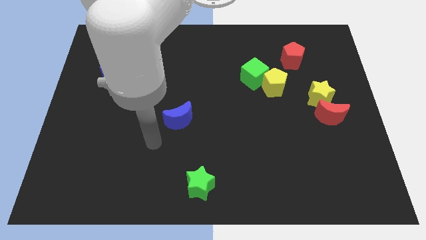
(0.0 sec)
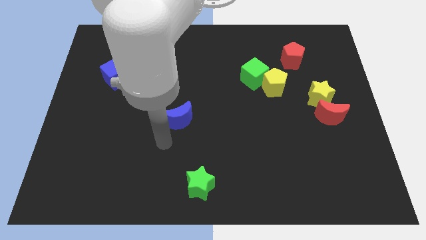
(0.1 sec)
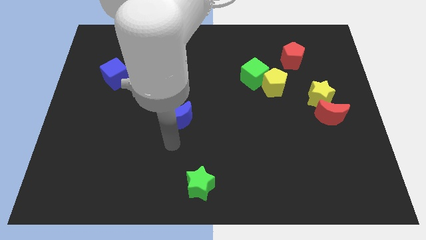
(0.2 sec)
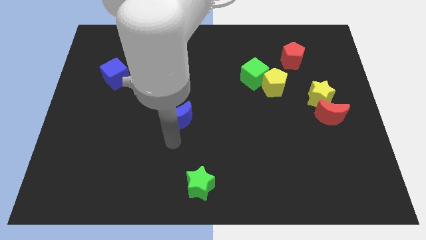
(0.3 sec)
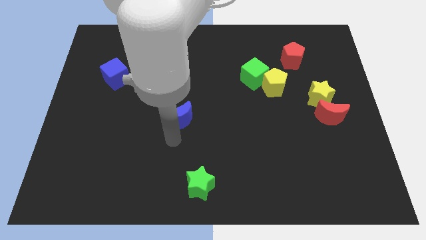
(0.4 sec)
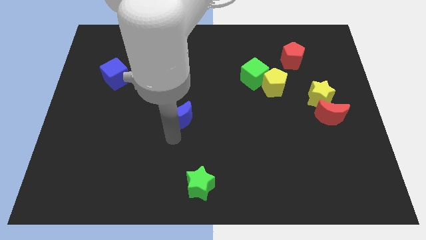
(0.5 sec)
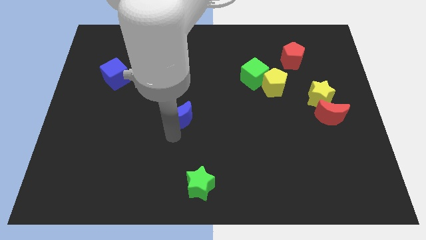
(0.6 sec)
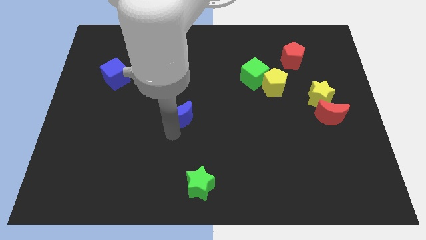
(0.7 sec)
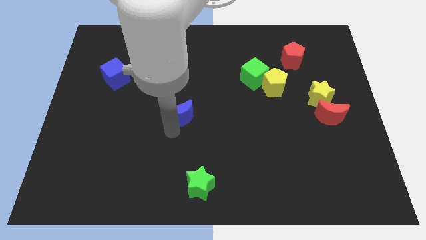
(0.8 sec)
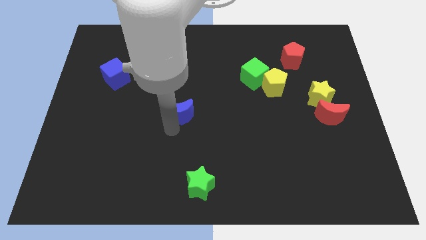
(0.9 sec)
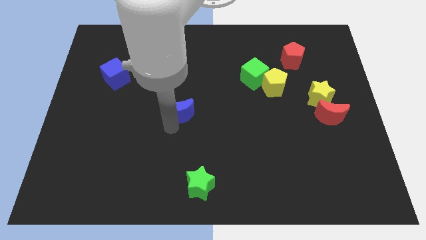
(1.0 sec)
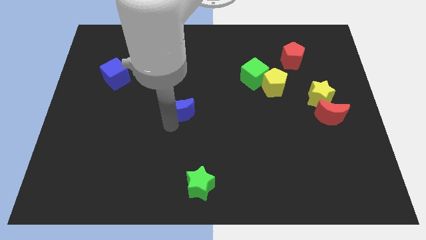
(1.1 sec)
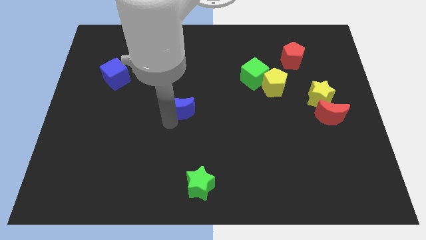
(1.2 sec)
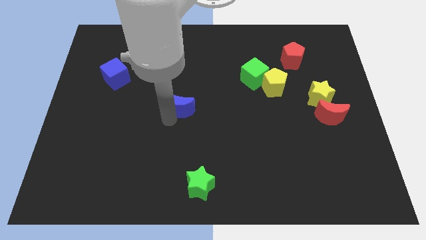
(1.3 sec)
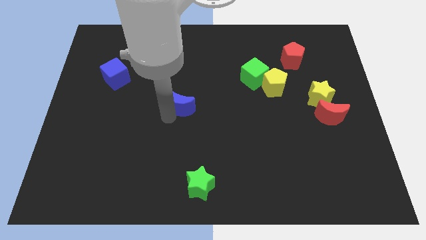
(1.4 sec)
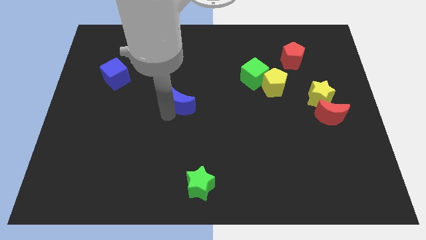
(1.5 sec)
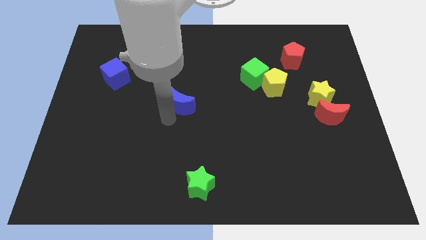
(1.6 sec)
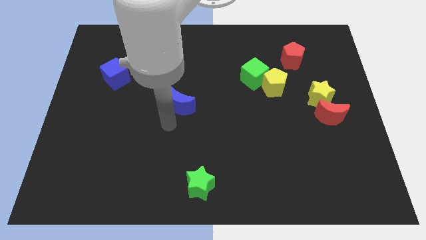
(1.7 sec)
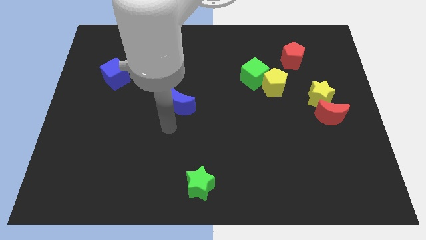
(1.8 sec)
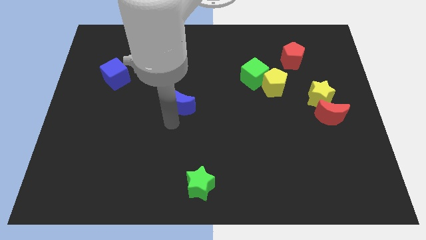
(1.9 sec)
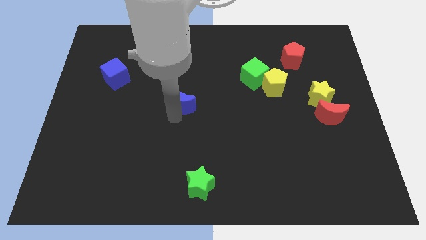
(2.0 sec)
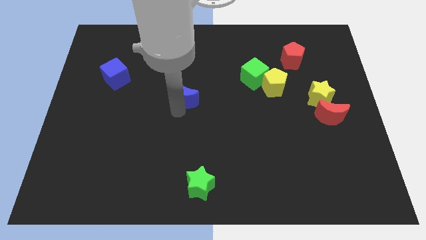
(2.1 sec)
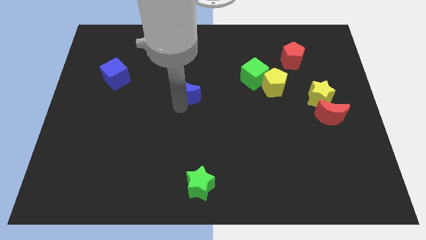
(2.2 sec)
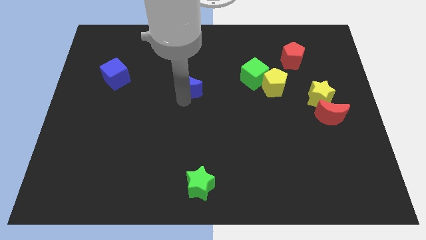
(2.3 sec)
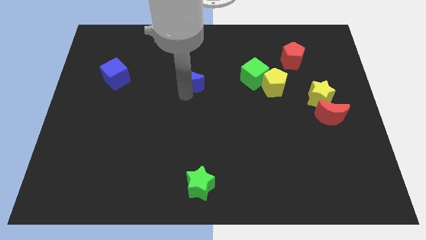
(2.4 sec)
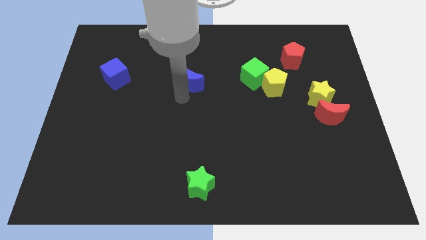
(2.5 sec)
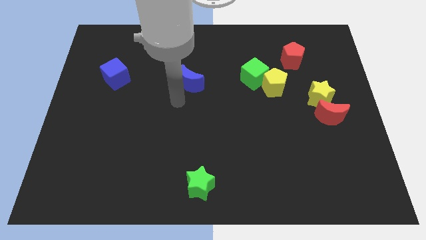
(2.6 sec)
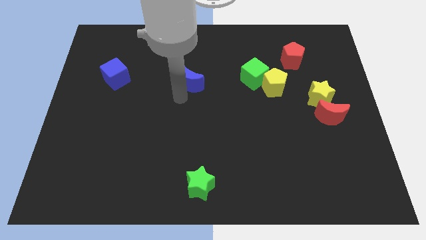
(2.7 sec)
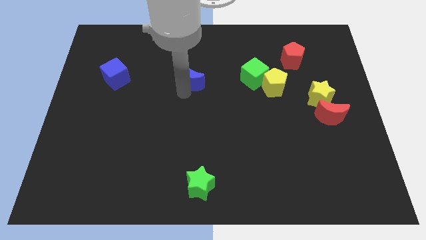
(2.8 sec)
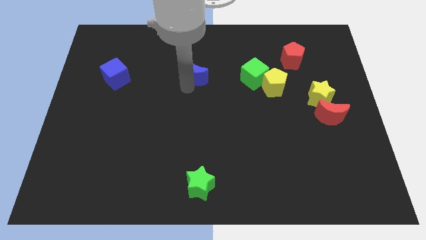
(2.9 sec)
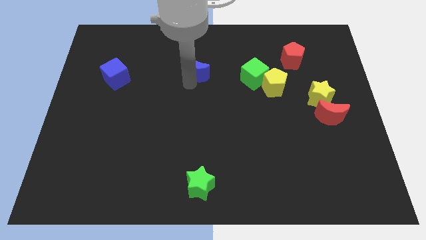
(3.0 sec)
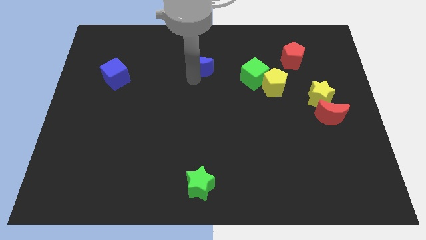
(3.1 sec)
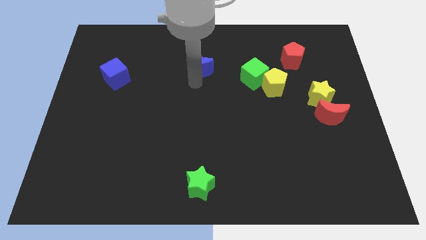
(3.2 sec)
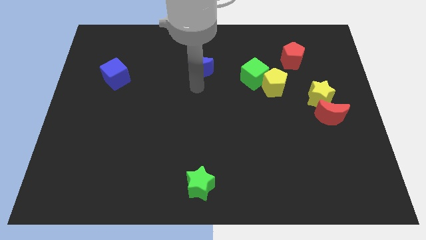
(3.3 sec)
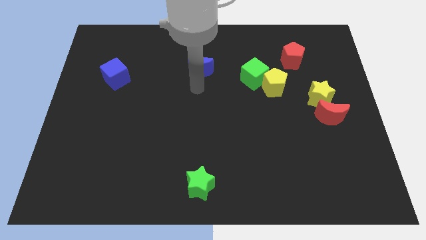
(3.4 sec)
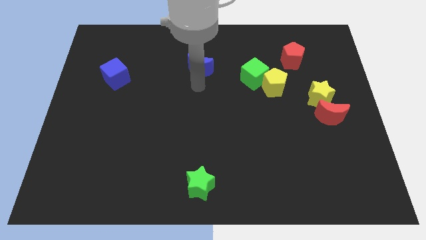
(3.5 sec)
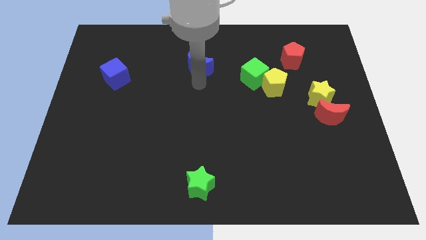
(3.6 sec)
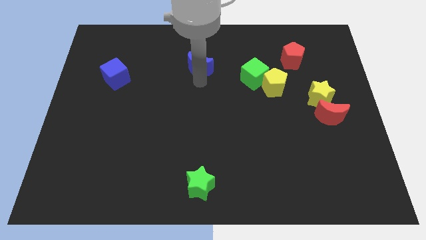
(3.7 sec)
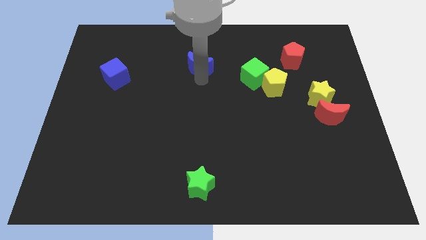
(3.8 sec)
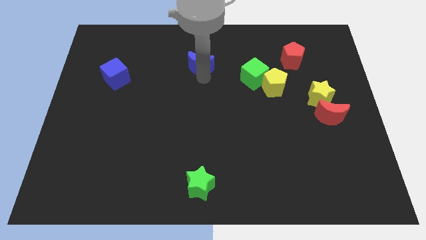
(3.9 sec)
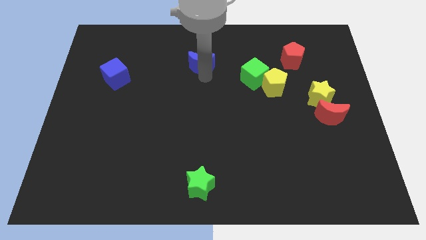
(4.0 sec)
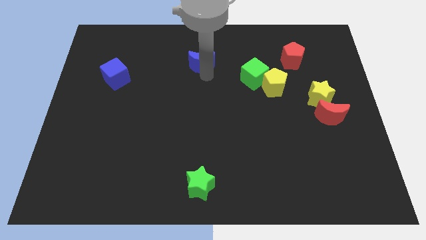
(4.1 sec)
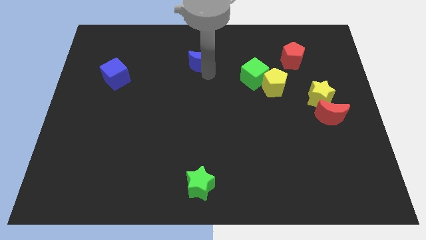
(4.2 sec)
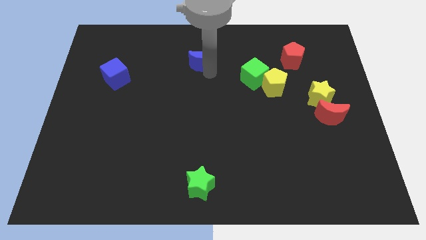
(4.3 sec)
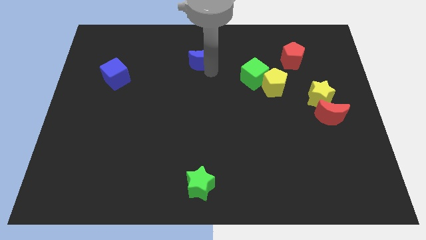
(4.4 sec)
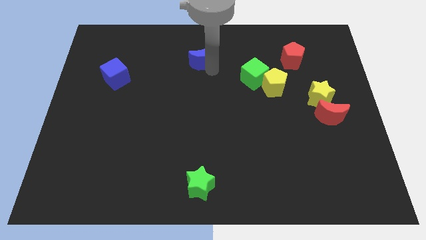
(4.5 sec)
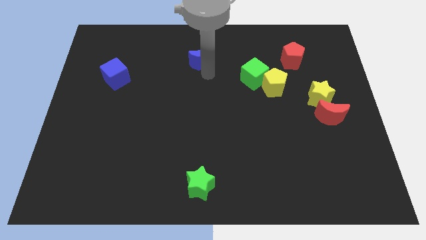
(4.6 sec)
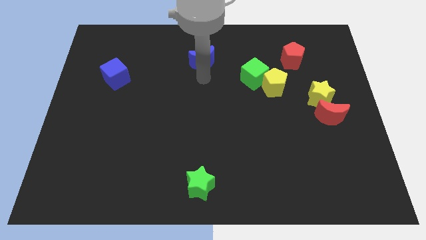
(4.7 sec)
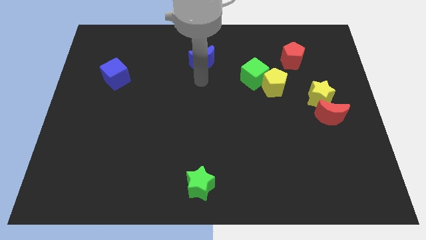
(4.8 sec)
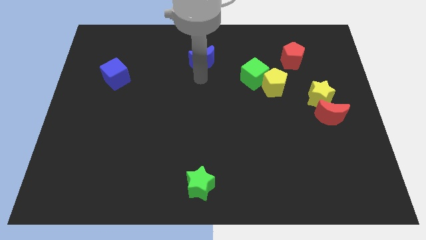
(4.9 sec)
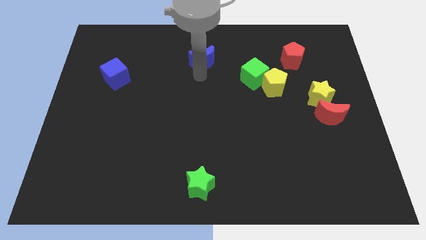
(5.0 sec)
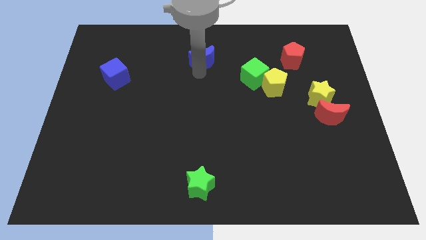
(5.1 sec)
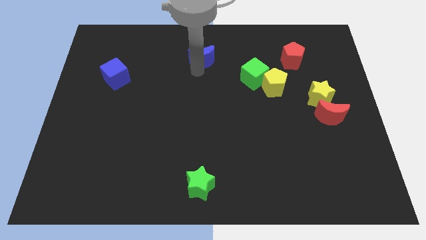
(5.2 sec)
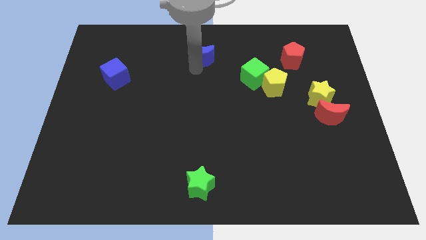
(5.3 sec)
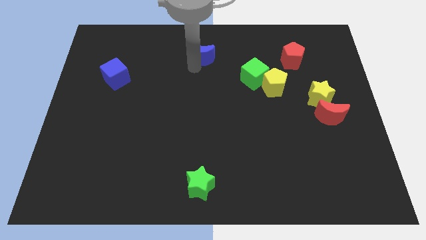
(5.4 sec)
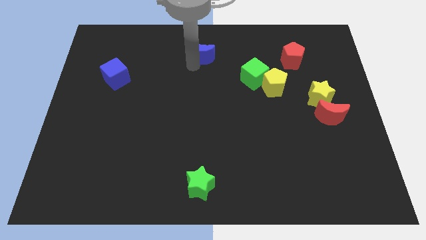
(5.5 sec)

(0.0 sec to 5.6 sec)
push the blue moon to the towards your base

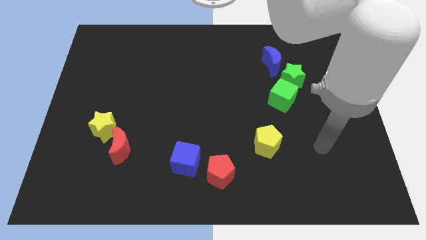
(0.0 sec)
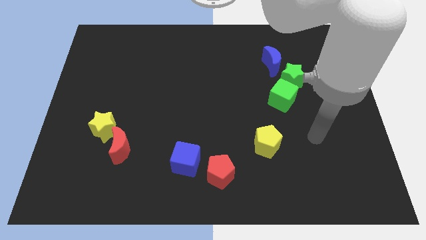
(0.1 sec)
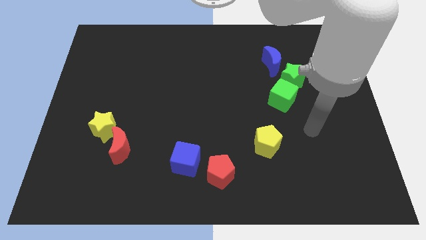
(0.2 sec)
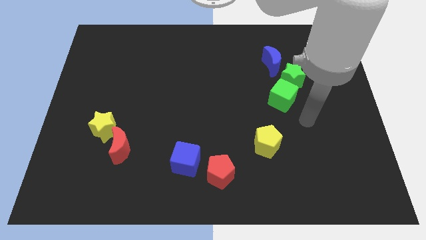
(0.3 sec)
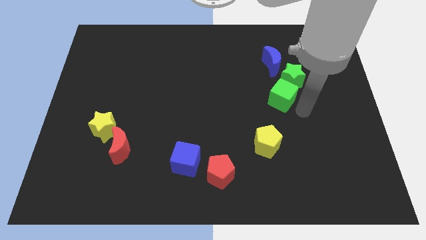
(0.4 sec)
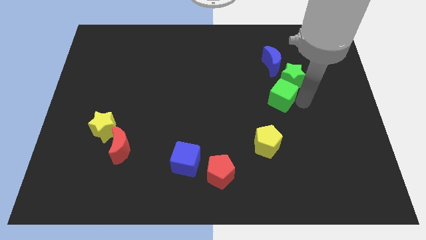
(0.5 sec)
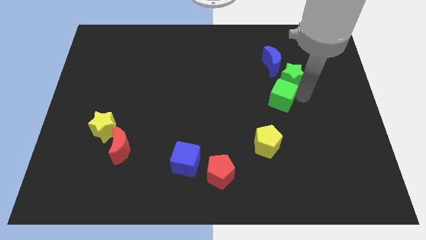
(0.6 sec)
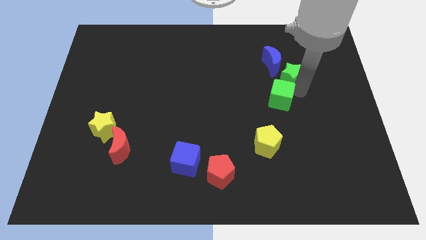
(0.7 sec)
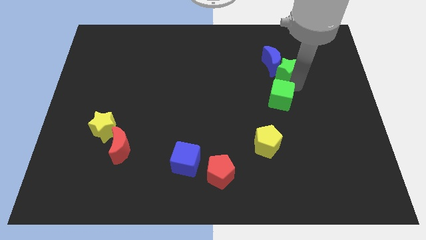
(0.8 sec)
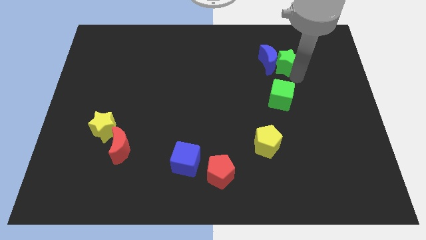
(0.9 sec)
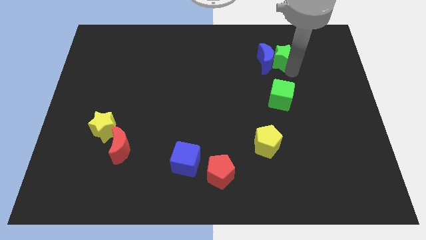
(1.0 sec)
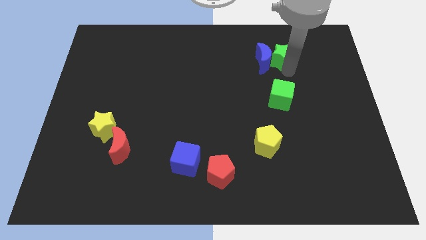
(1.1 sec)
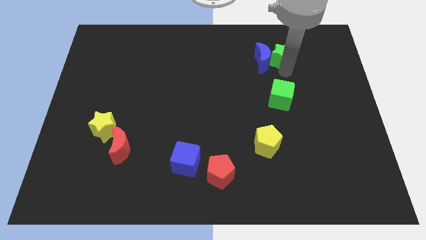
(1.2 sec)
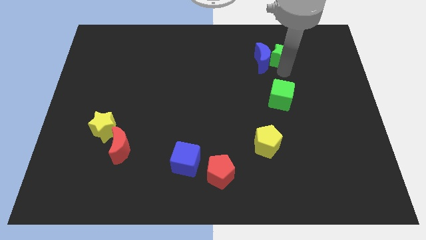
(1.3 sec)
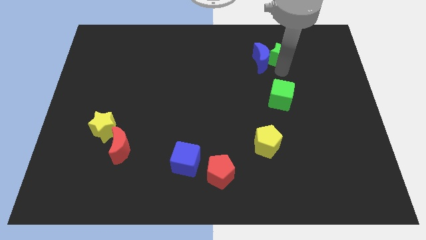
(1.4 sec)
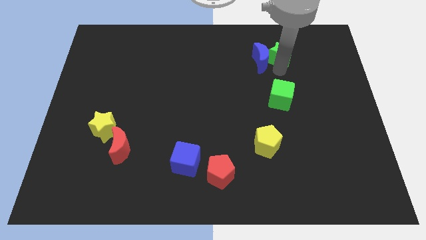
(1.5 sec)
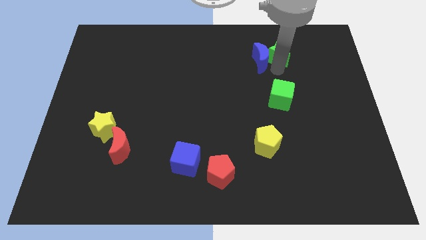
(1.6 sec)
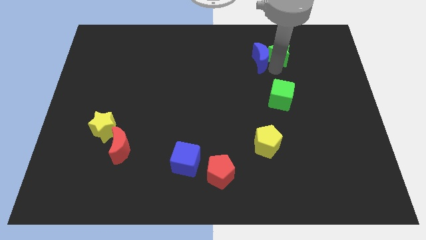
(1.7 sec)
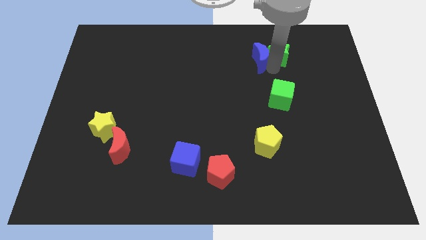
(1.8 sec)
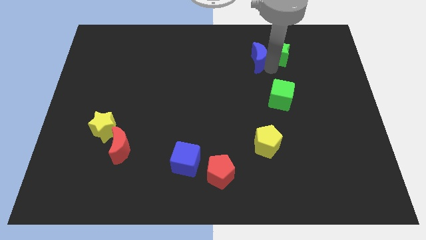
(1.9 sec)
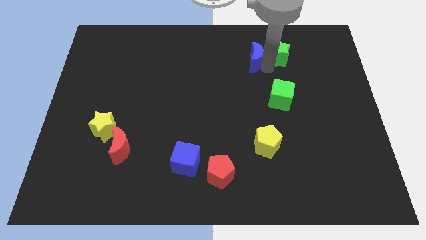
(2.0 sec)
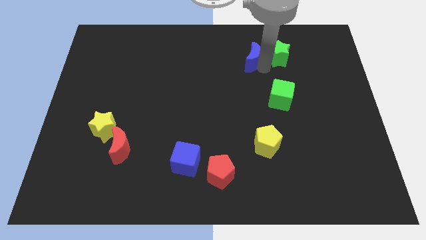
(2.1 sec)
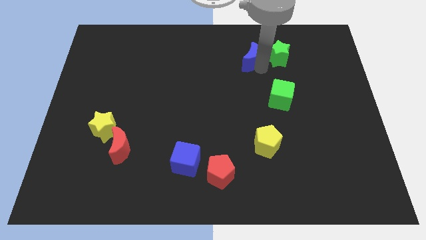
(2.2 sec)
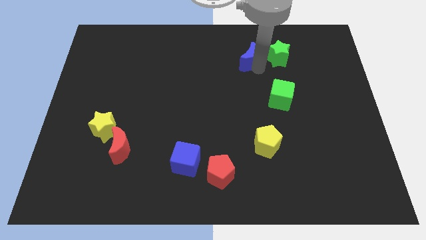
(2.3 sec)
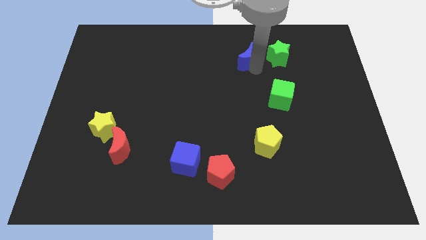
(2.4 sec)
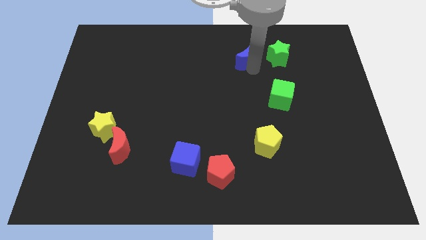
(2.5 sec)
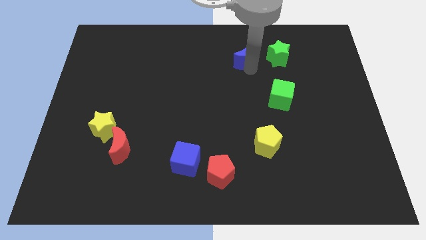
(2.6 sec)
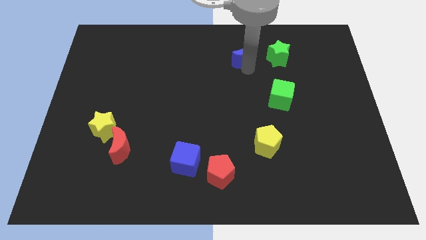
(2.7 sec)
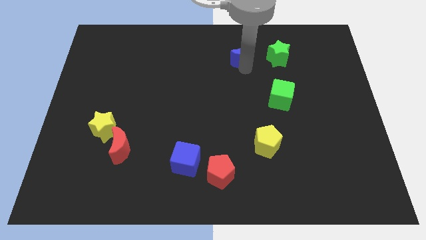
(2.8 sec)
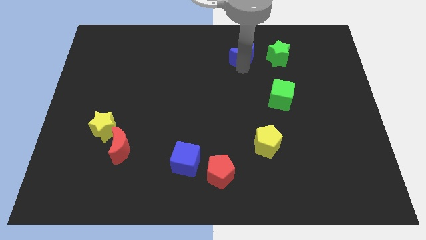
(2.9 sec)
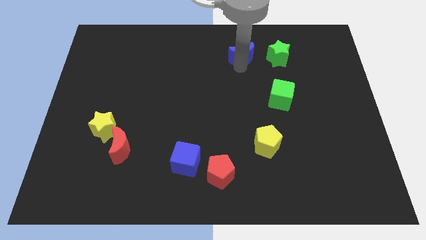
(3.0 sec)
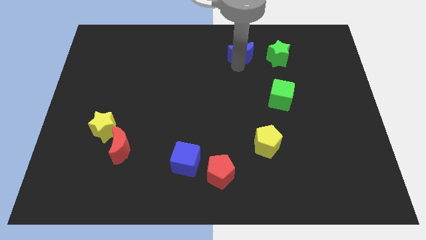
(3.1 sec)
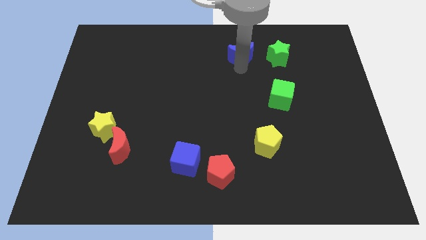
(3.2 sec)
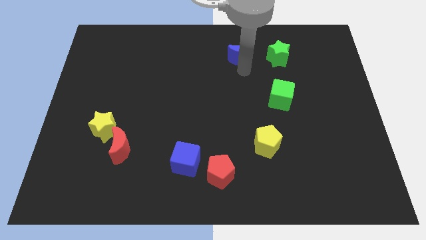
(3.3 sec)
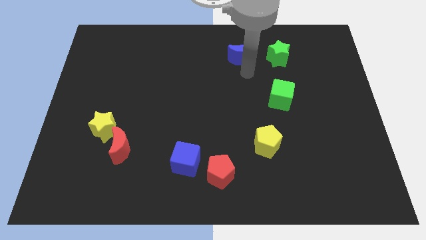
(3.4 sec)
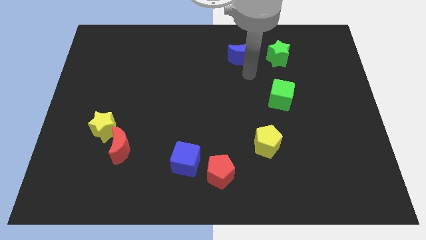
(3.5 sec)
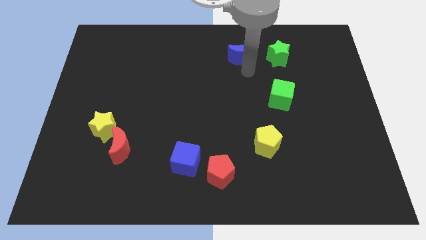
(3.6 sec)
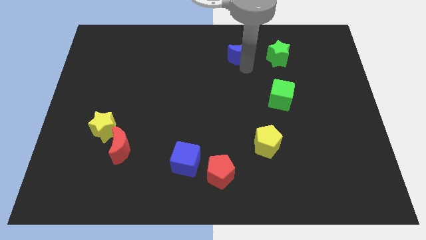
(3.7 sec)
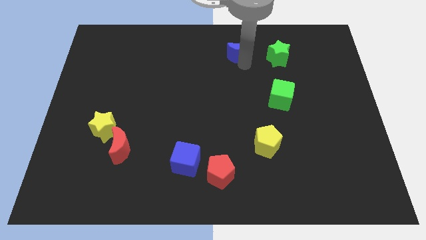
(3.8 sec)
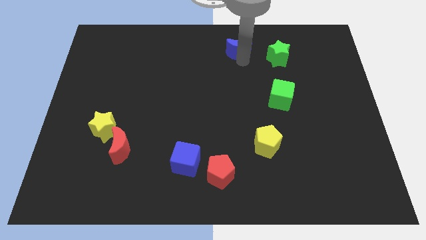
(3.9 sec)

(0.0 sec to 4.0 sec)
slide the blue moon to the top
